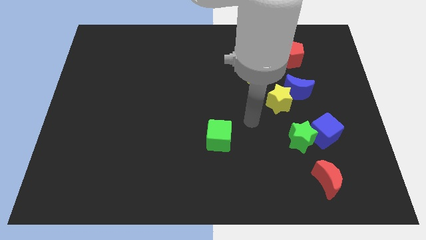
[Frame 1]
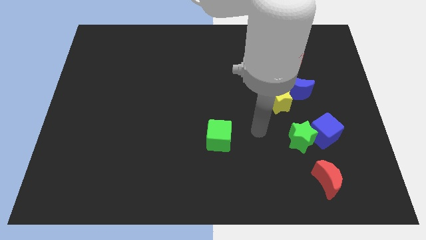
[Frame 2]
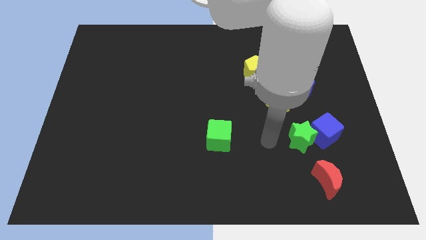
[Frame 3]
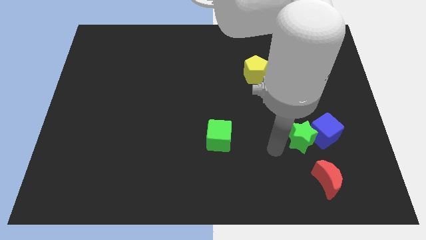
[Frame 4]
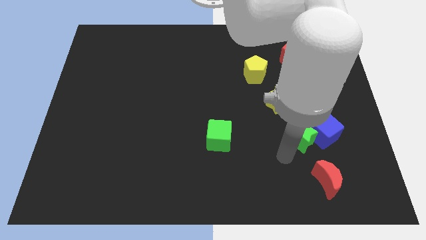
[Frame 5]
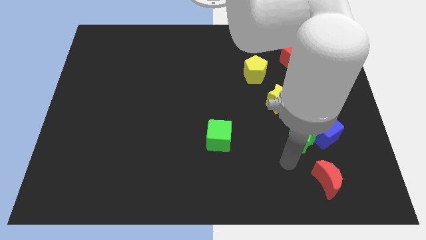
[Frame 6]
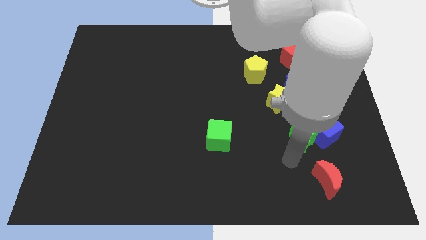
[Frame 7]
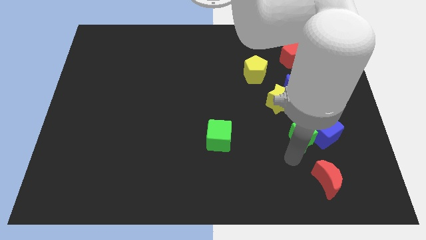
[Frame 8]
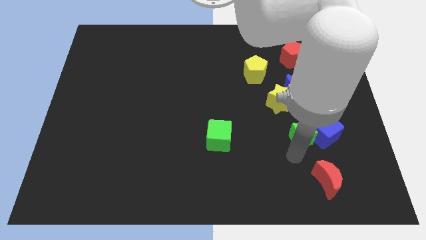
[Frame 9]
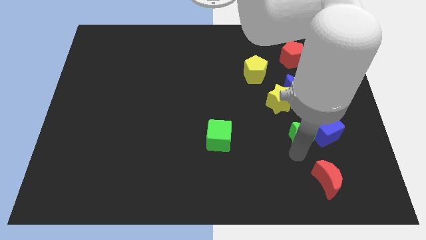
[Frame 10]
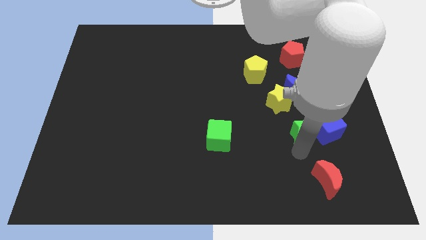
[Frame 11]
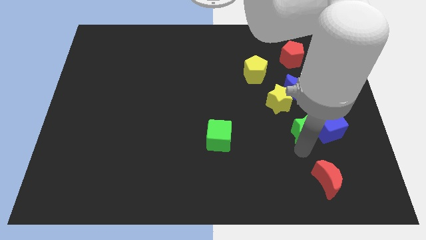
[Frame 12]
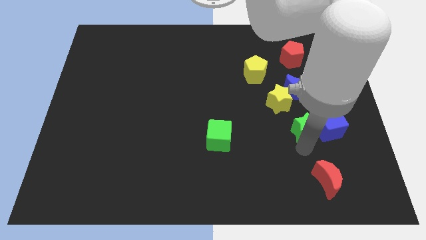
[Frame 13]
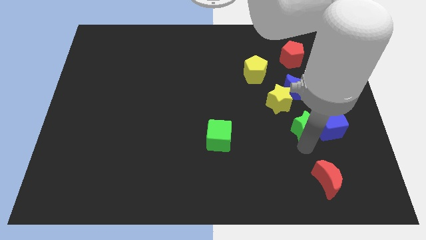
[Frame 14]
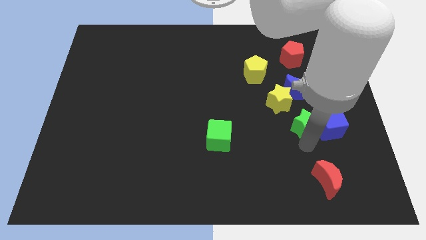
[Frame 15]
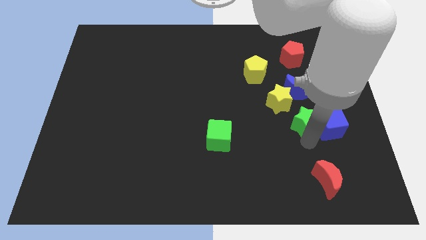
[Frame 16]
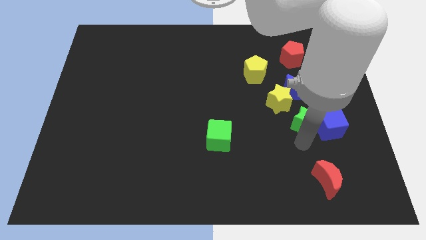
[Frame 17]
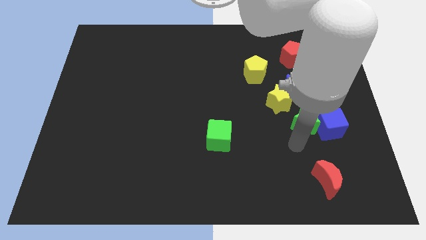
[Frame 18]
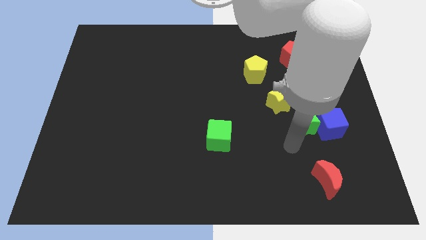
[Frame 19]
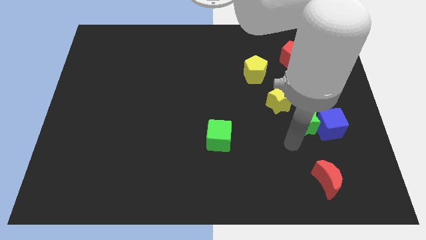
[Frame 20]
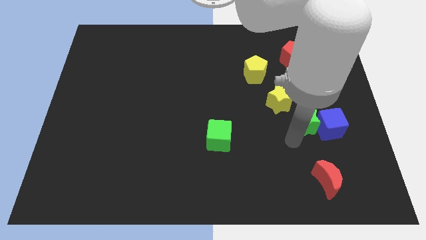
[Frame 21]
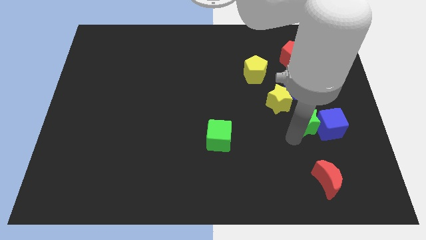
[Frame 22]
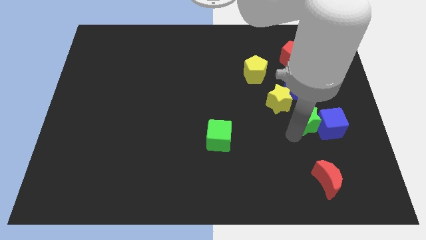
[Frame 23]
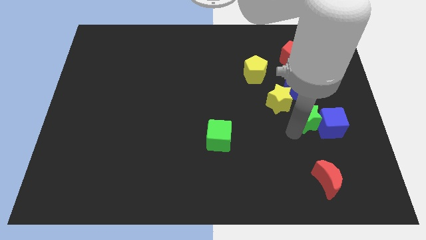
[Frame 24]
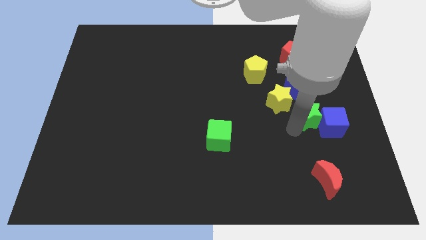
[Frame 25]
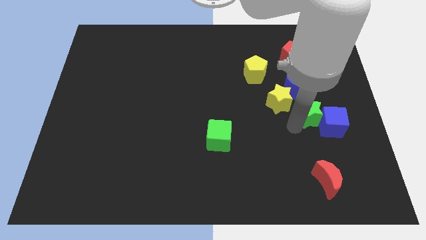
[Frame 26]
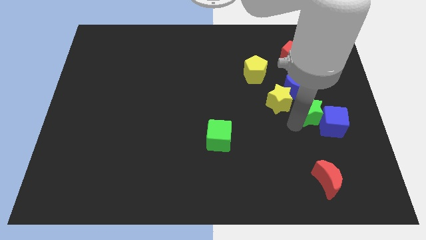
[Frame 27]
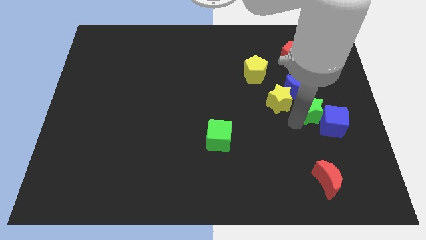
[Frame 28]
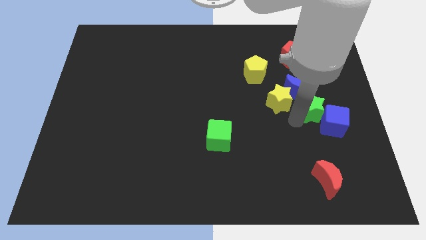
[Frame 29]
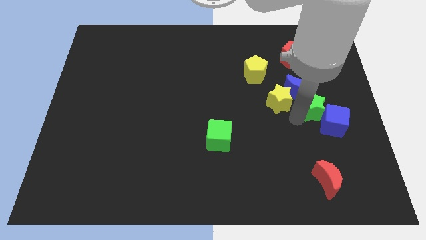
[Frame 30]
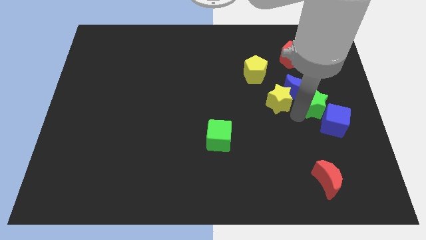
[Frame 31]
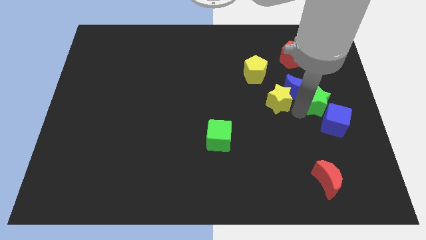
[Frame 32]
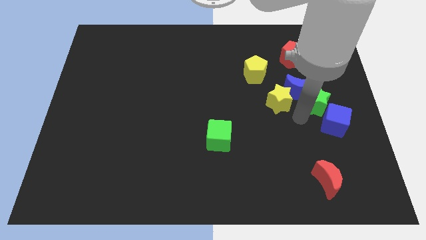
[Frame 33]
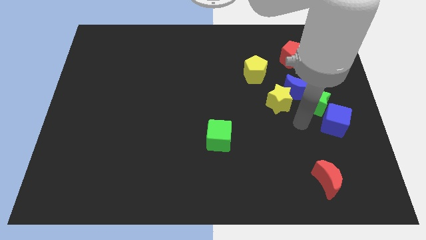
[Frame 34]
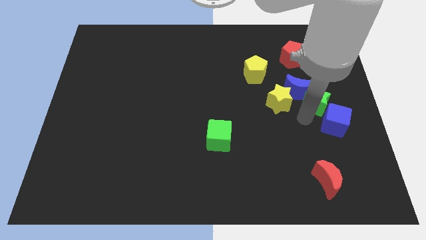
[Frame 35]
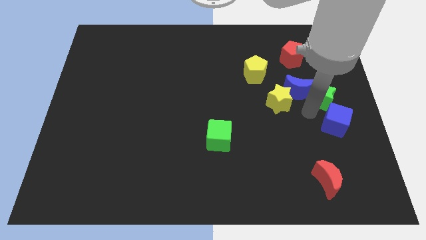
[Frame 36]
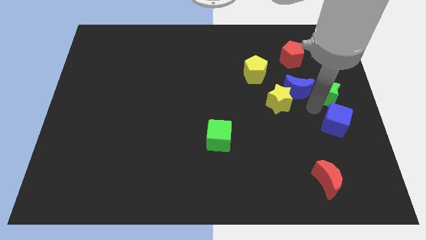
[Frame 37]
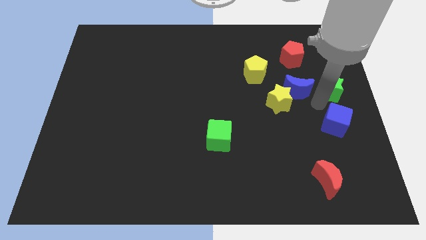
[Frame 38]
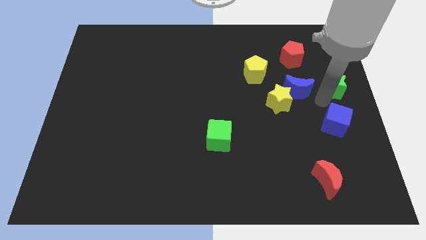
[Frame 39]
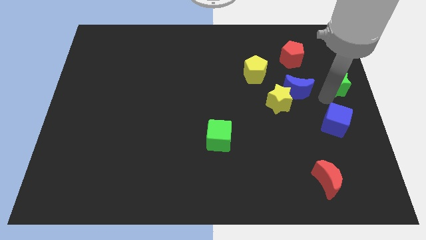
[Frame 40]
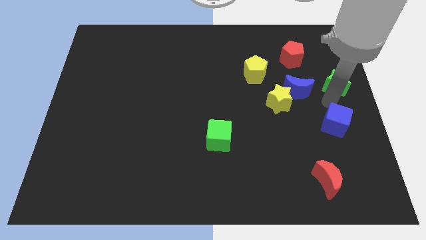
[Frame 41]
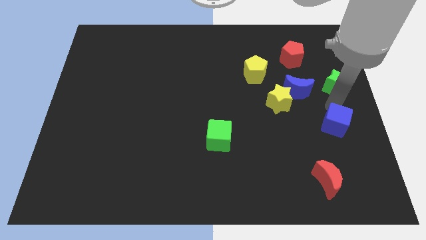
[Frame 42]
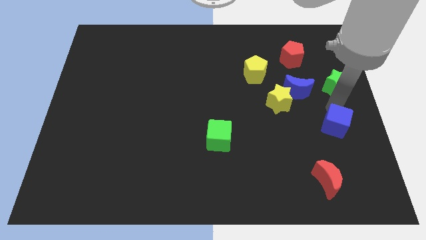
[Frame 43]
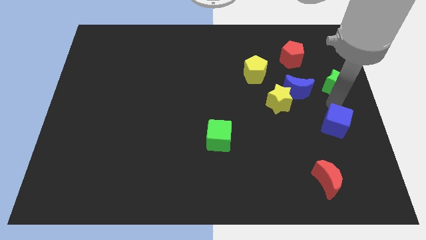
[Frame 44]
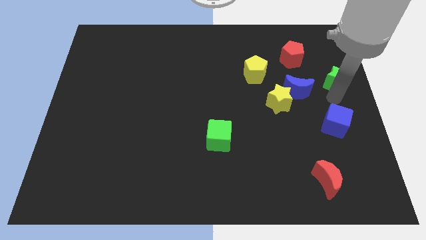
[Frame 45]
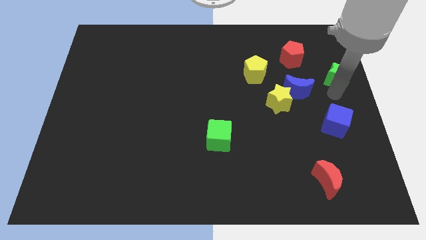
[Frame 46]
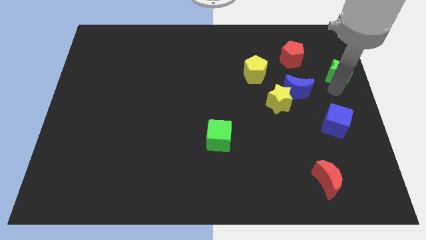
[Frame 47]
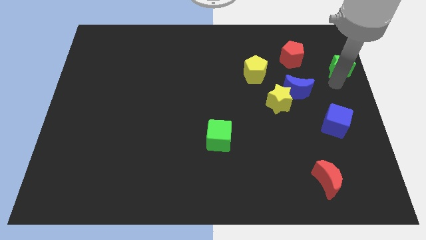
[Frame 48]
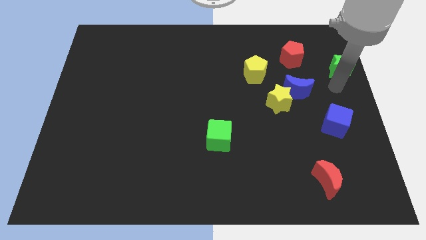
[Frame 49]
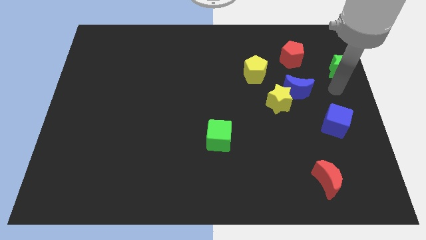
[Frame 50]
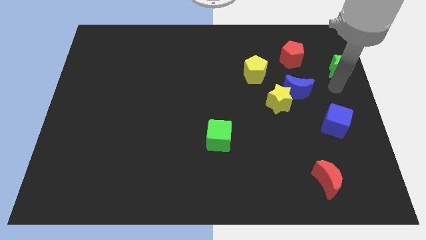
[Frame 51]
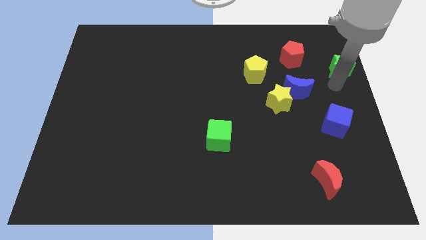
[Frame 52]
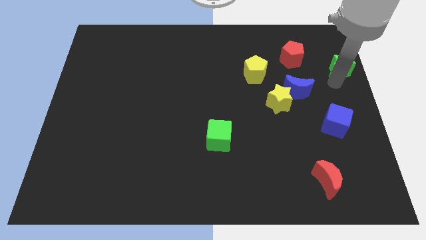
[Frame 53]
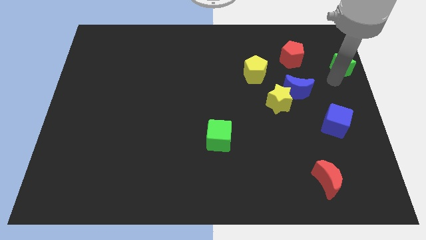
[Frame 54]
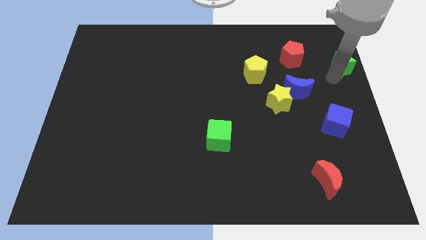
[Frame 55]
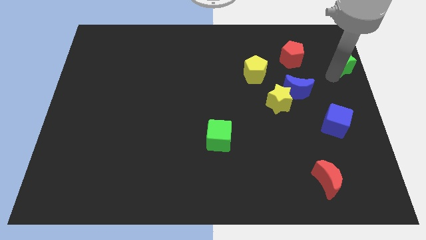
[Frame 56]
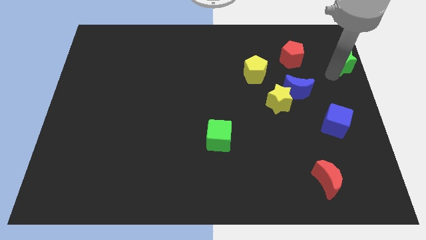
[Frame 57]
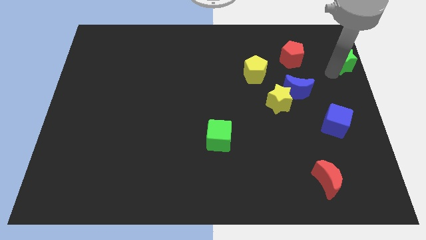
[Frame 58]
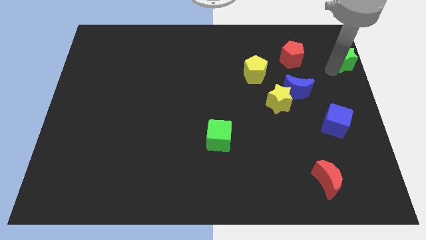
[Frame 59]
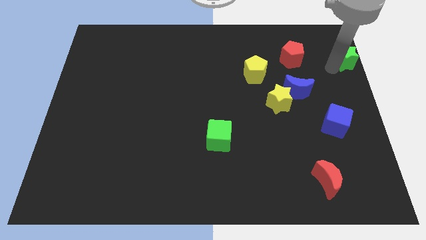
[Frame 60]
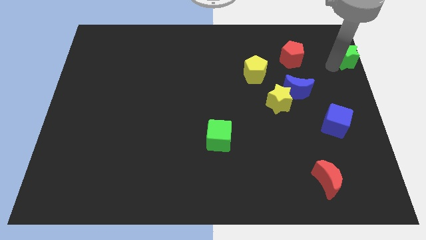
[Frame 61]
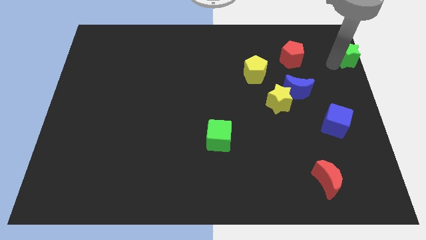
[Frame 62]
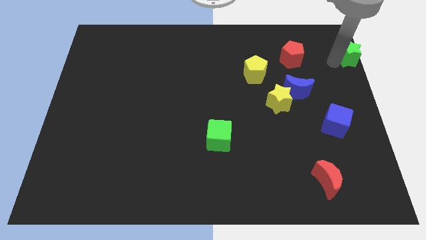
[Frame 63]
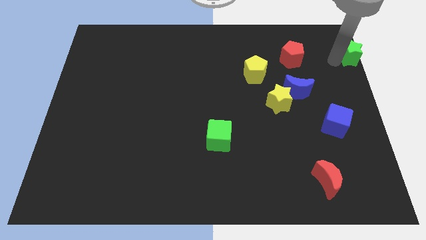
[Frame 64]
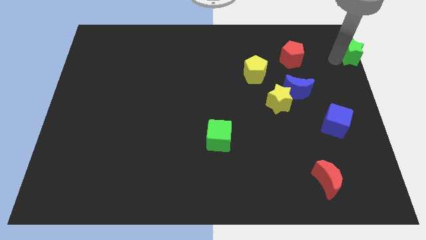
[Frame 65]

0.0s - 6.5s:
slide the green star to the top right corner

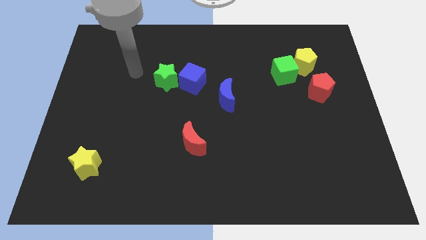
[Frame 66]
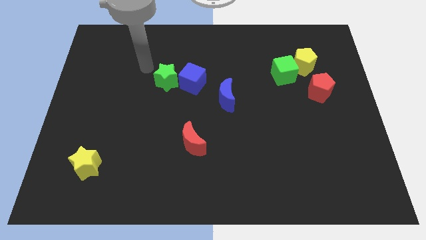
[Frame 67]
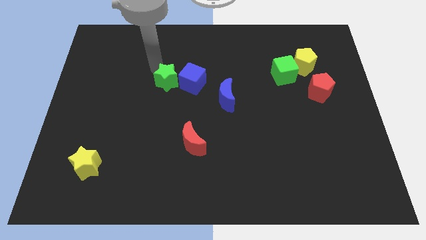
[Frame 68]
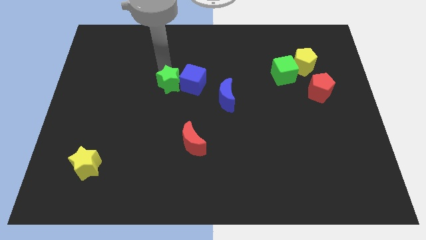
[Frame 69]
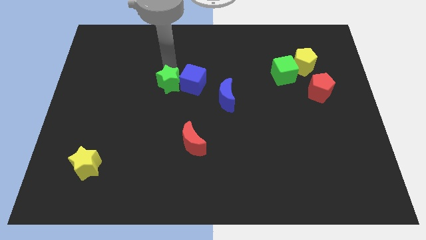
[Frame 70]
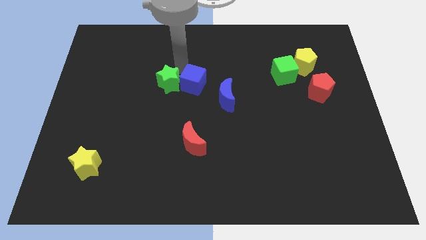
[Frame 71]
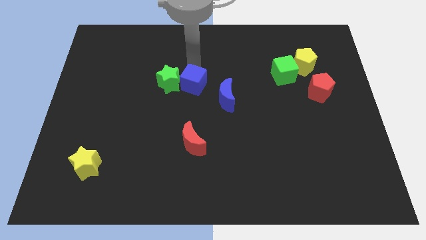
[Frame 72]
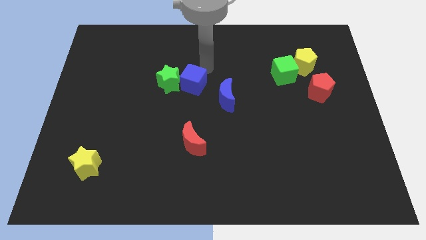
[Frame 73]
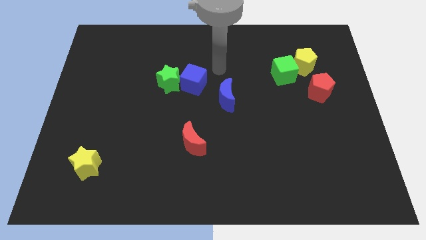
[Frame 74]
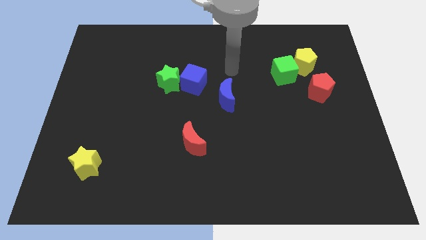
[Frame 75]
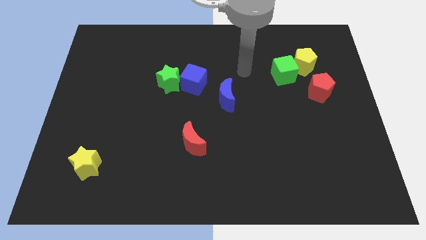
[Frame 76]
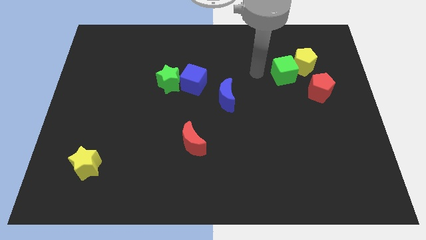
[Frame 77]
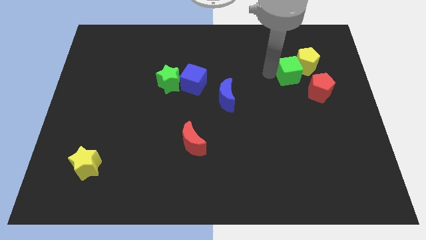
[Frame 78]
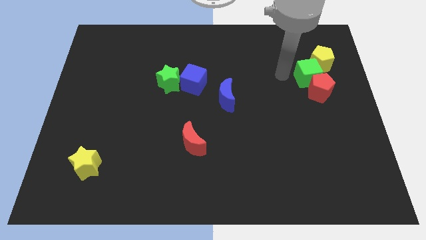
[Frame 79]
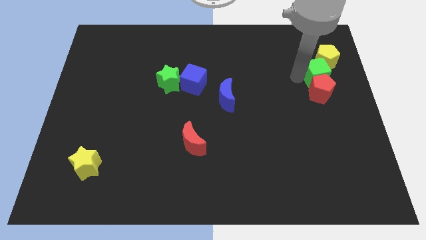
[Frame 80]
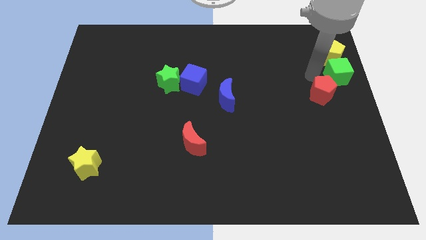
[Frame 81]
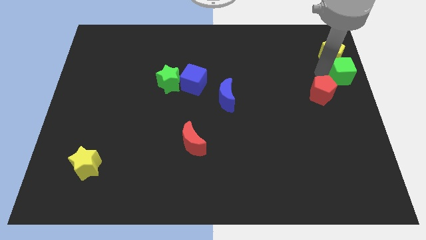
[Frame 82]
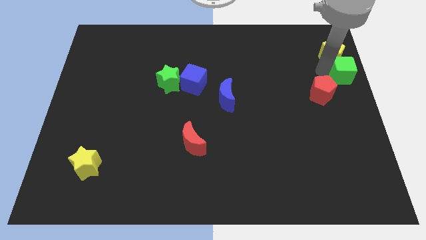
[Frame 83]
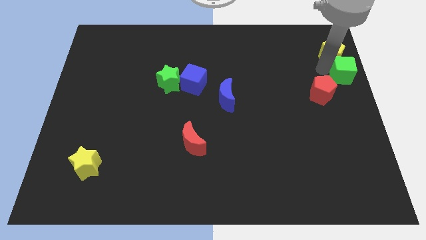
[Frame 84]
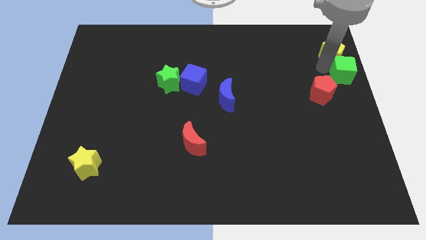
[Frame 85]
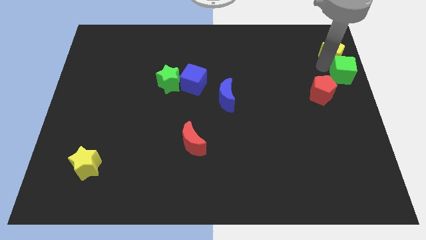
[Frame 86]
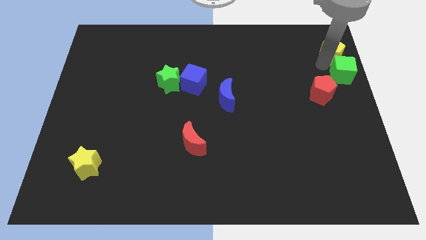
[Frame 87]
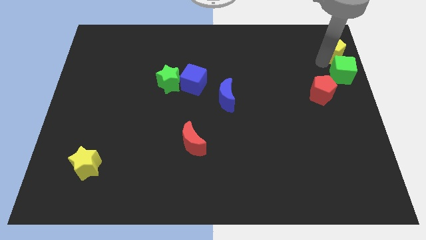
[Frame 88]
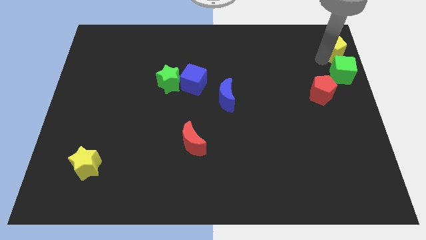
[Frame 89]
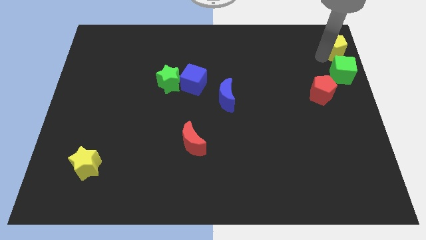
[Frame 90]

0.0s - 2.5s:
move the yellow pentagon to the top right corner
